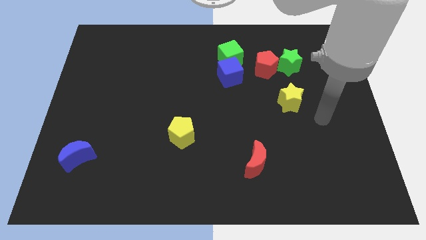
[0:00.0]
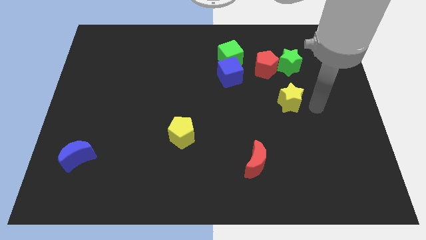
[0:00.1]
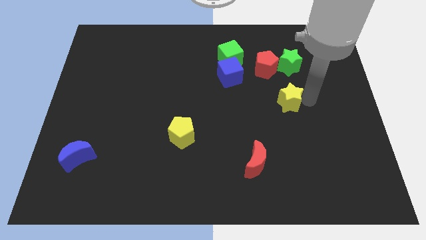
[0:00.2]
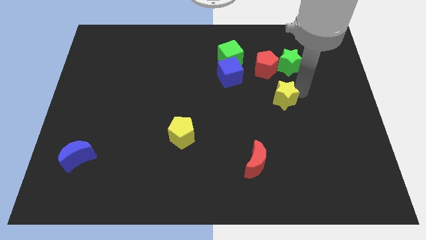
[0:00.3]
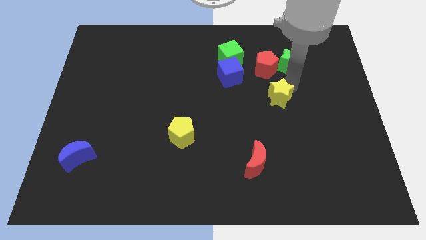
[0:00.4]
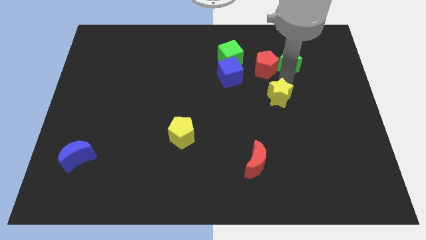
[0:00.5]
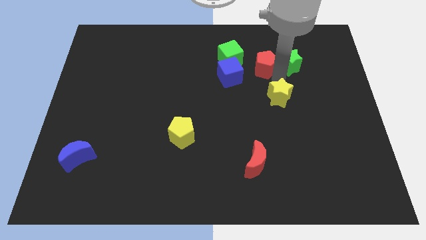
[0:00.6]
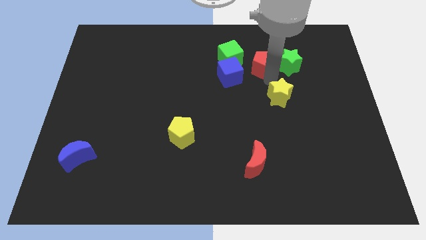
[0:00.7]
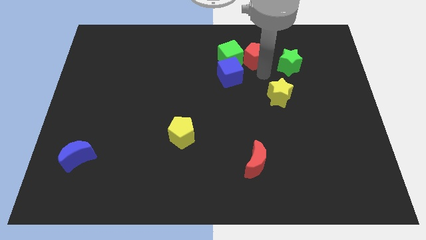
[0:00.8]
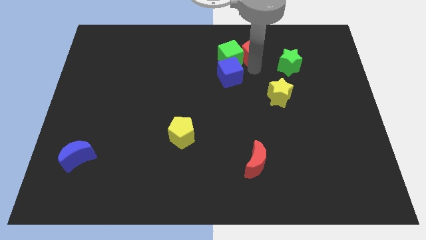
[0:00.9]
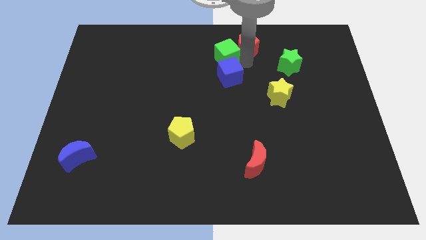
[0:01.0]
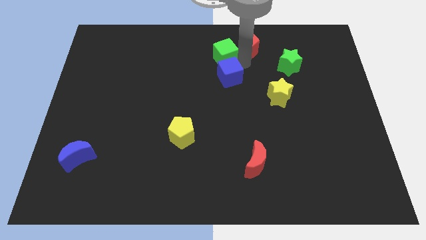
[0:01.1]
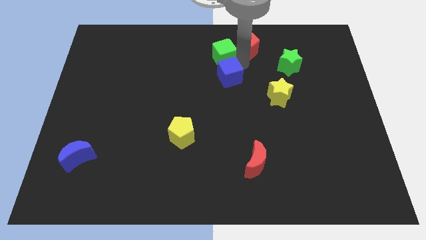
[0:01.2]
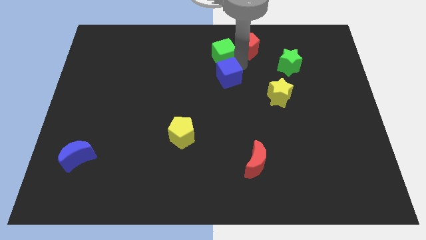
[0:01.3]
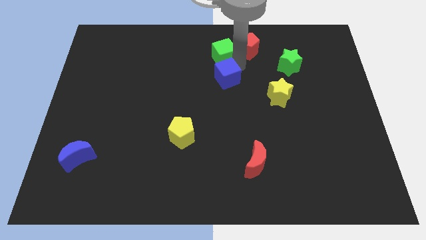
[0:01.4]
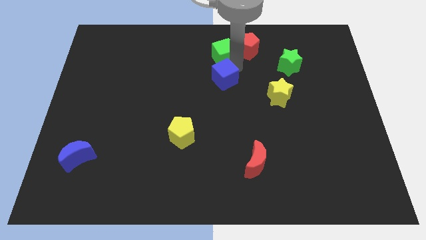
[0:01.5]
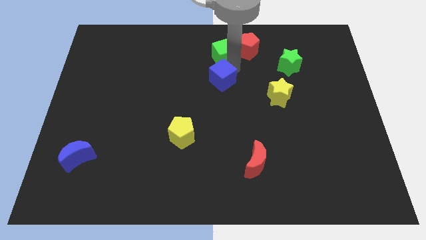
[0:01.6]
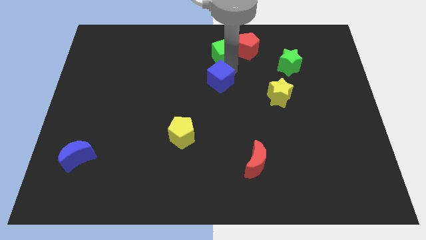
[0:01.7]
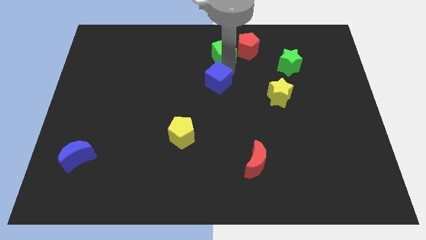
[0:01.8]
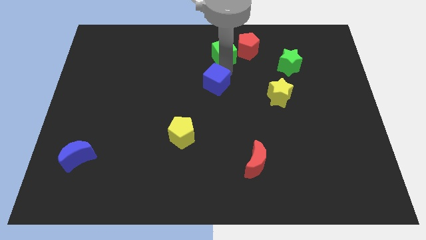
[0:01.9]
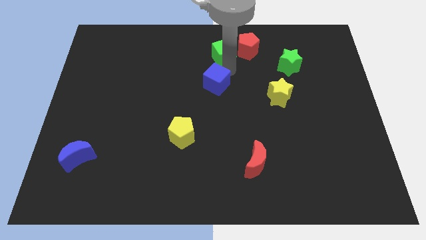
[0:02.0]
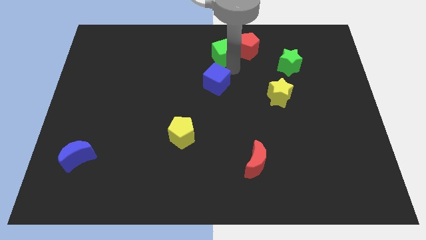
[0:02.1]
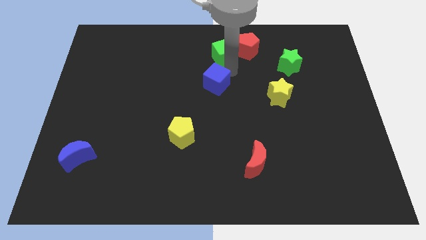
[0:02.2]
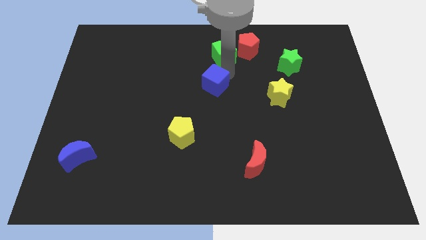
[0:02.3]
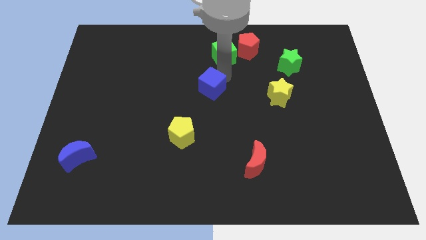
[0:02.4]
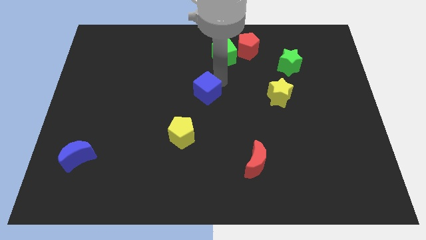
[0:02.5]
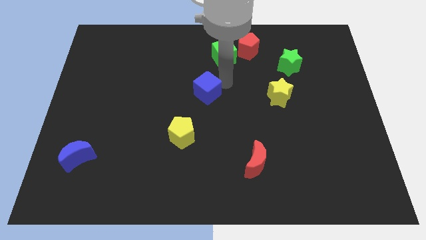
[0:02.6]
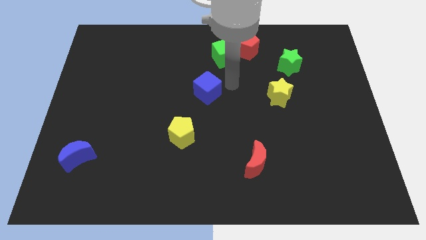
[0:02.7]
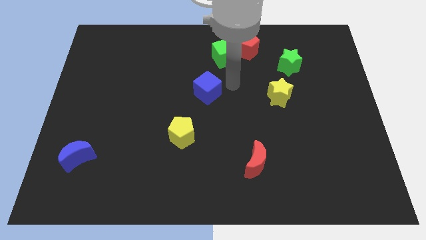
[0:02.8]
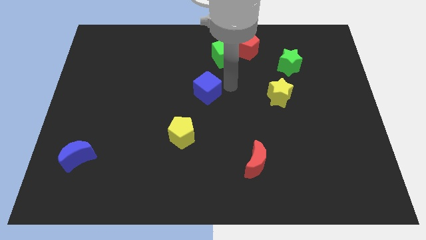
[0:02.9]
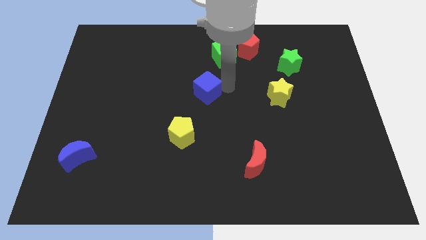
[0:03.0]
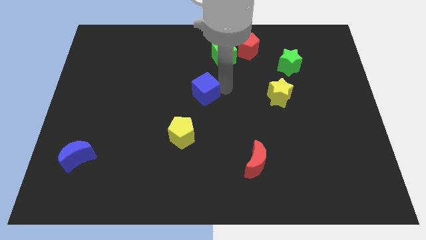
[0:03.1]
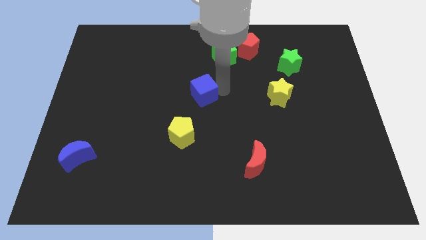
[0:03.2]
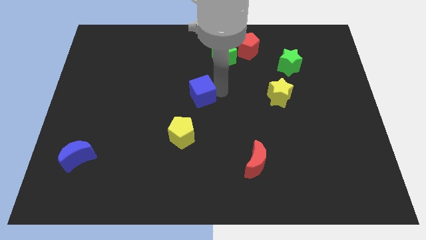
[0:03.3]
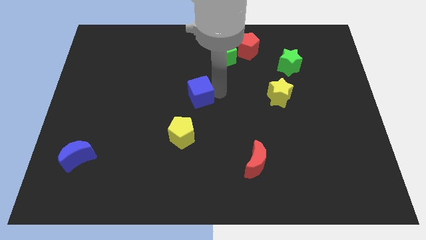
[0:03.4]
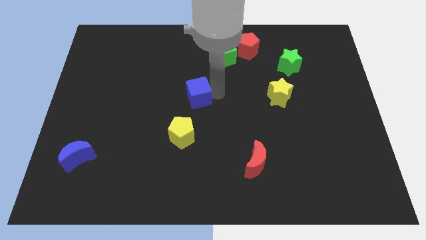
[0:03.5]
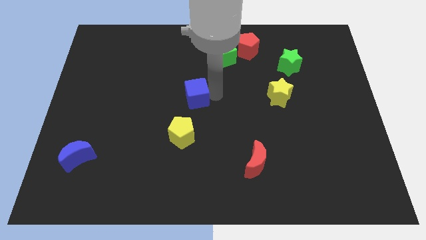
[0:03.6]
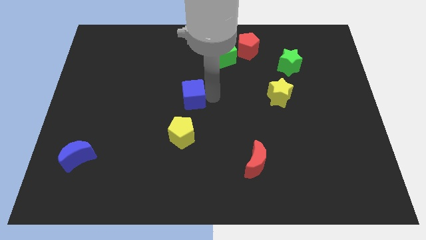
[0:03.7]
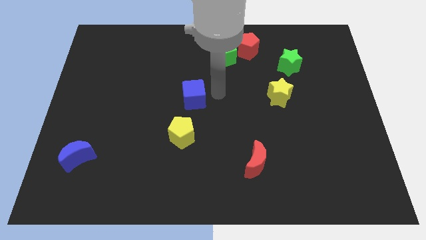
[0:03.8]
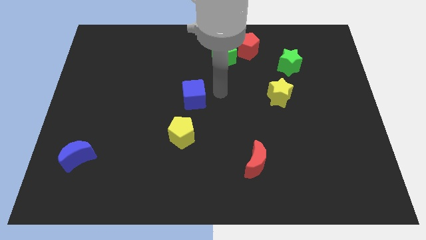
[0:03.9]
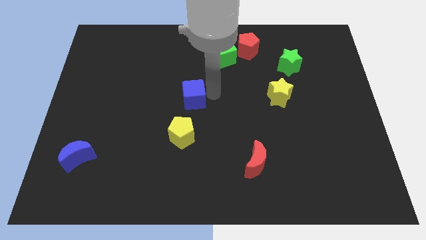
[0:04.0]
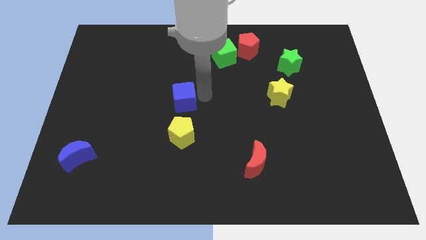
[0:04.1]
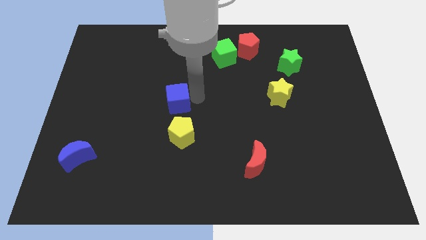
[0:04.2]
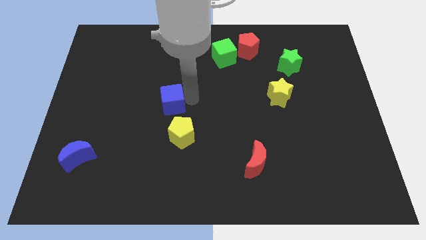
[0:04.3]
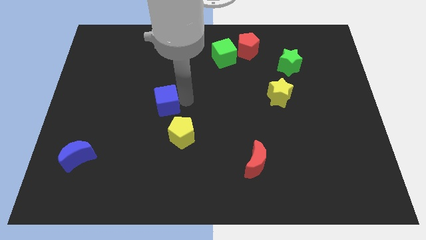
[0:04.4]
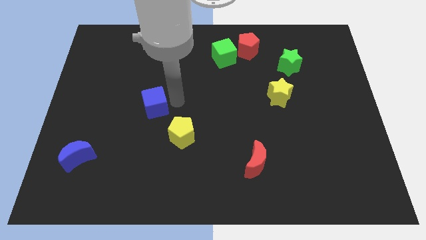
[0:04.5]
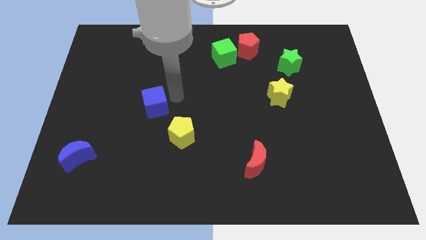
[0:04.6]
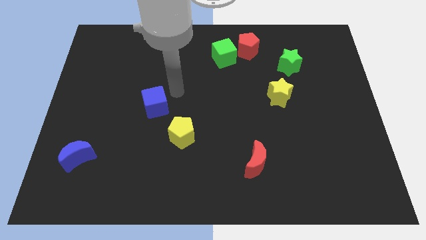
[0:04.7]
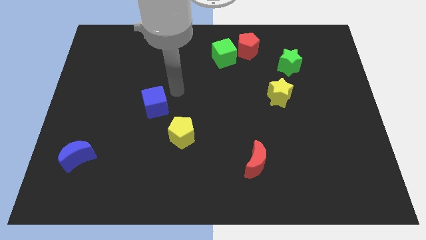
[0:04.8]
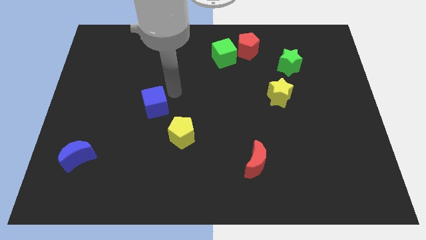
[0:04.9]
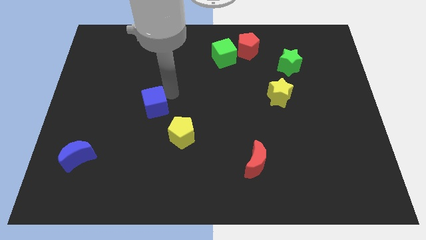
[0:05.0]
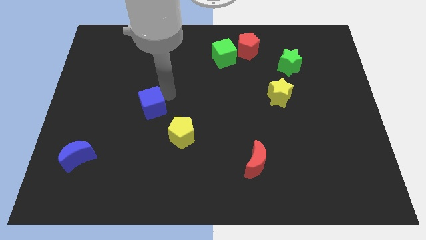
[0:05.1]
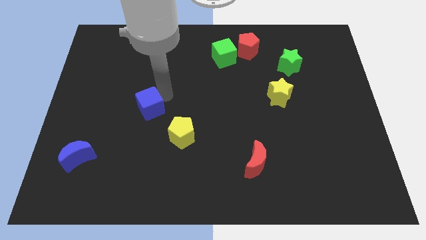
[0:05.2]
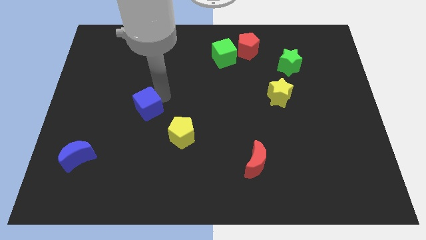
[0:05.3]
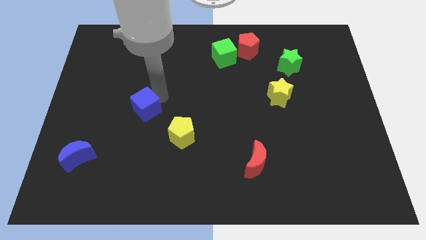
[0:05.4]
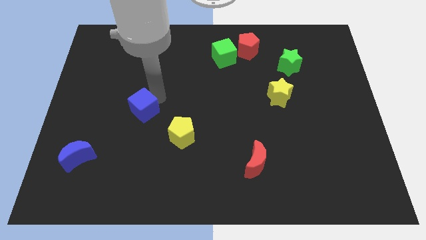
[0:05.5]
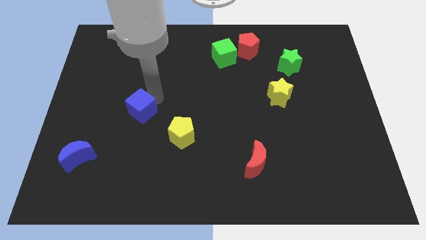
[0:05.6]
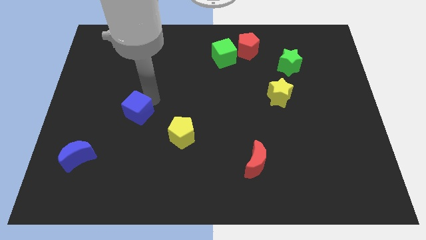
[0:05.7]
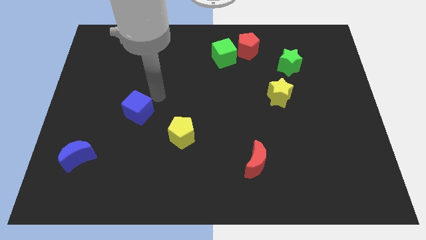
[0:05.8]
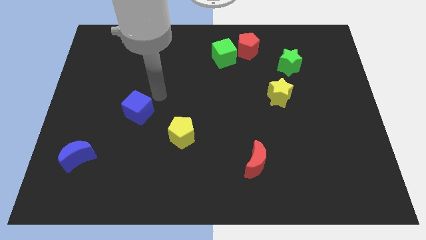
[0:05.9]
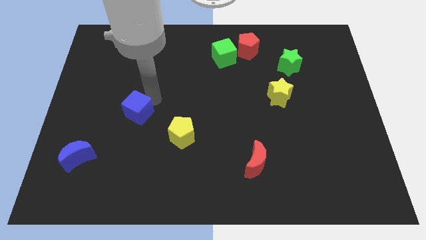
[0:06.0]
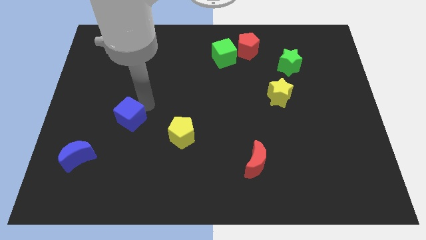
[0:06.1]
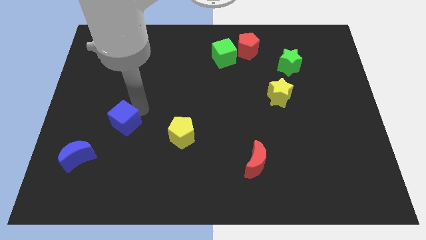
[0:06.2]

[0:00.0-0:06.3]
push the blue cube diagonally up and to the right of the blue moon

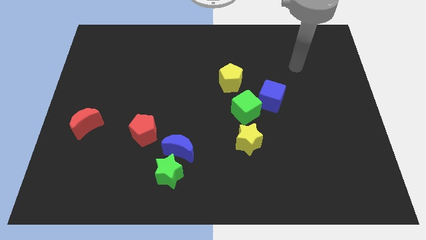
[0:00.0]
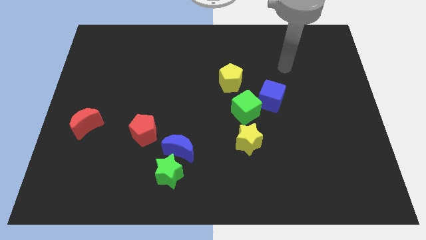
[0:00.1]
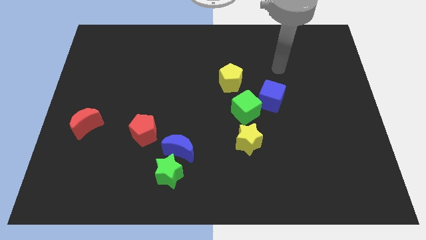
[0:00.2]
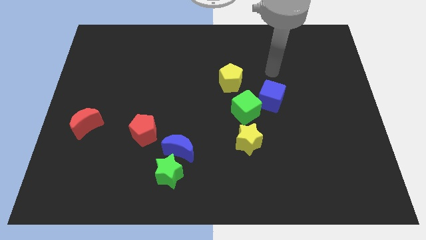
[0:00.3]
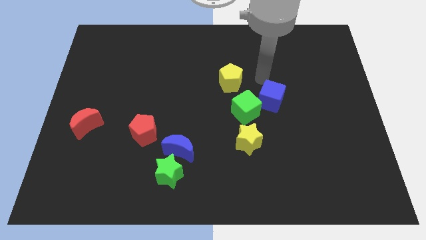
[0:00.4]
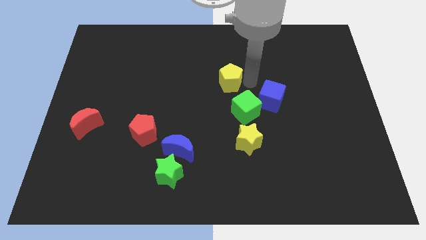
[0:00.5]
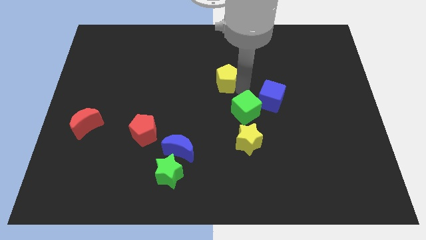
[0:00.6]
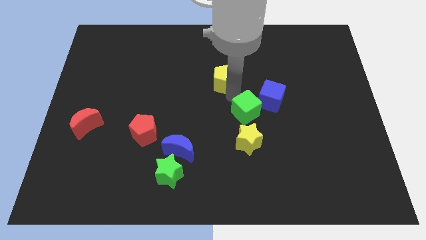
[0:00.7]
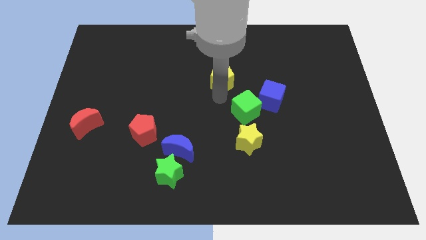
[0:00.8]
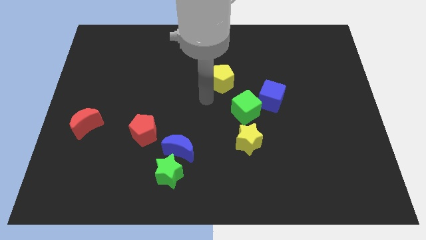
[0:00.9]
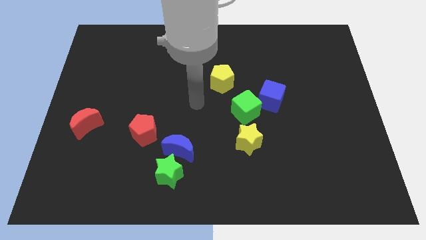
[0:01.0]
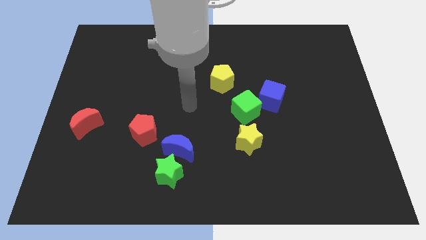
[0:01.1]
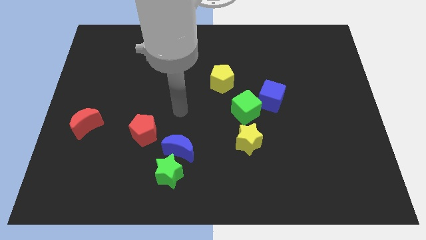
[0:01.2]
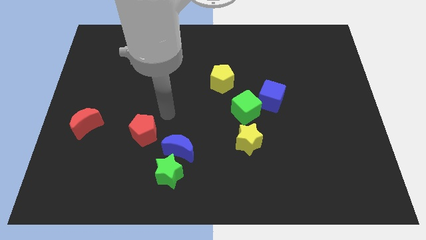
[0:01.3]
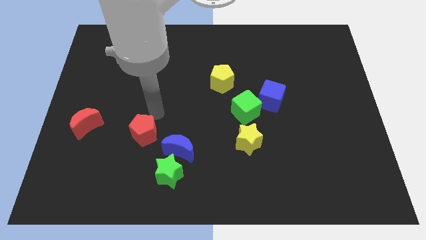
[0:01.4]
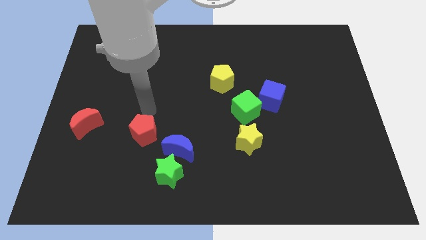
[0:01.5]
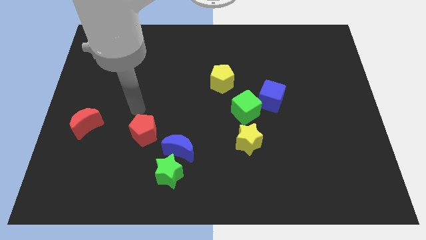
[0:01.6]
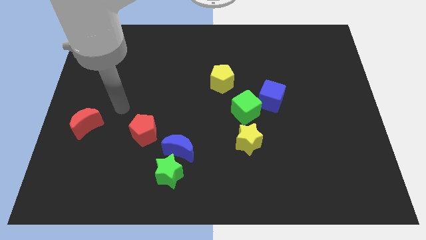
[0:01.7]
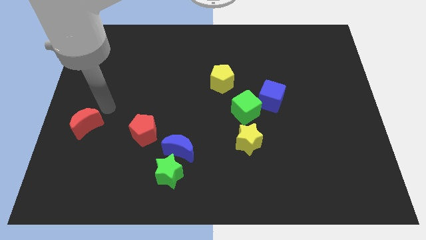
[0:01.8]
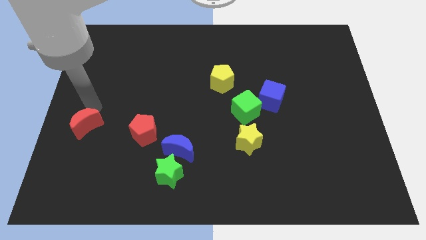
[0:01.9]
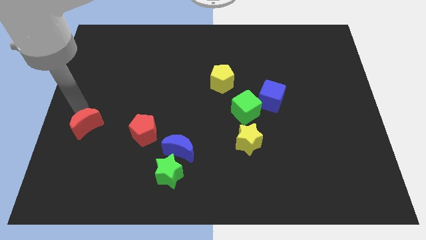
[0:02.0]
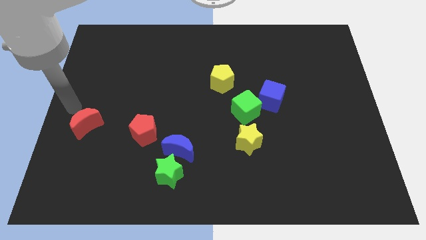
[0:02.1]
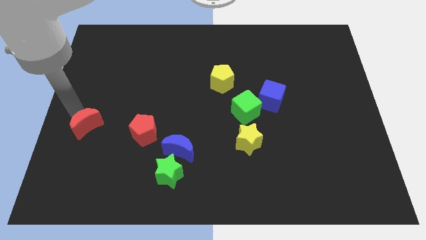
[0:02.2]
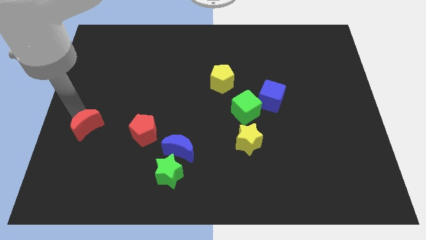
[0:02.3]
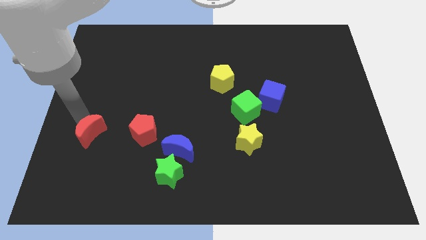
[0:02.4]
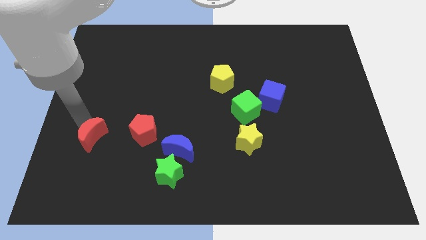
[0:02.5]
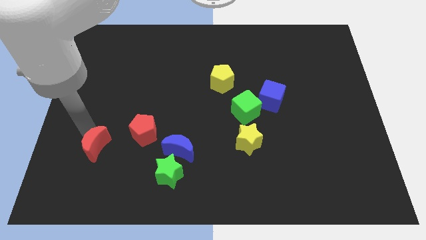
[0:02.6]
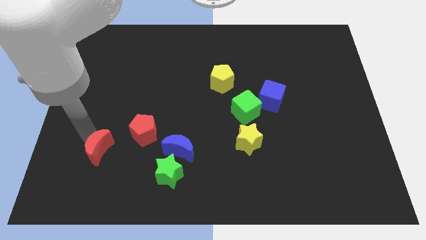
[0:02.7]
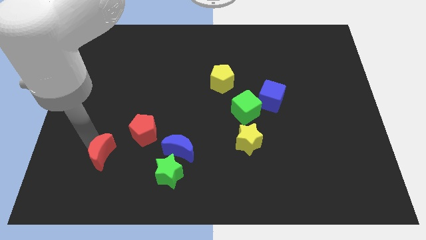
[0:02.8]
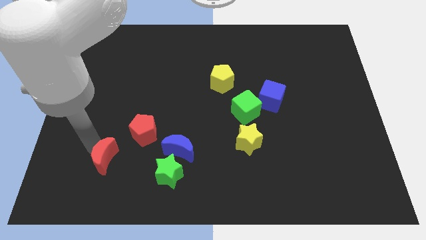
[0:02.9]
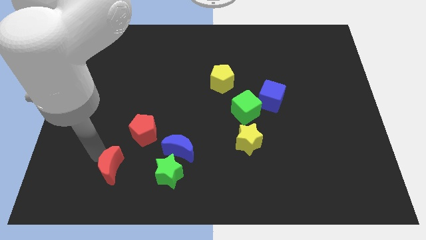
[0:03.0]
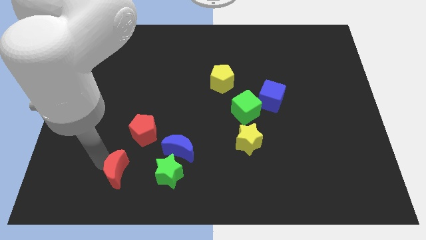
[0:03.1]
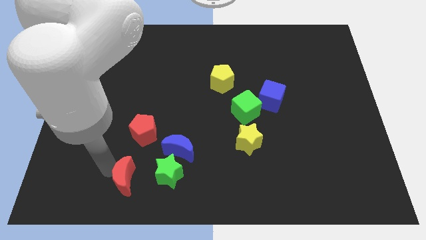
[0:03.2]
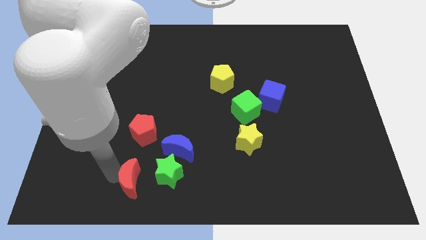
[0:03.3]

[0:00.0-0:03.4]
put the red moon diagonally down and to the left of the blue moon
